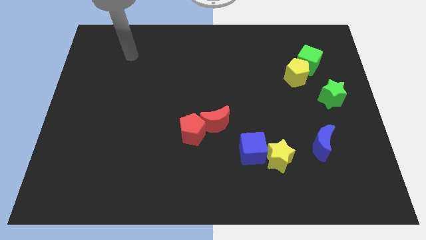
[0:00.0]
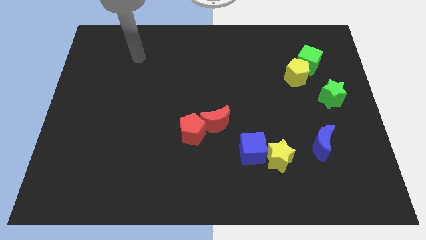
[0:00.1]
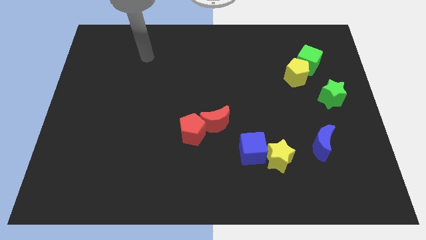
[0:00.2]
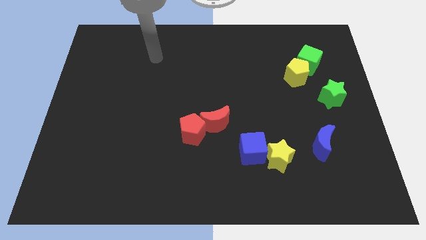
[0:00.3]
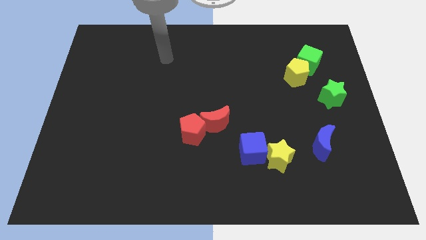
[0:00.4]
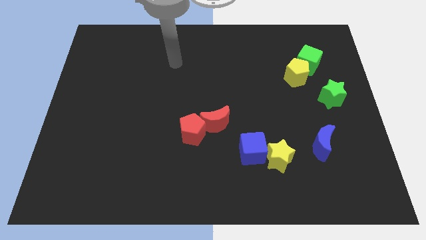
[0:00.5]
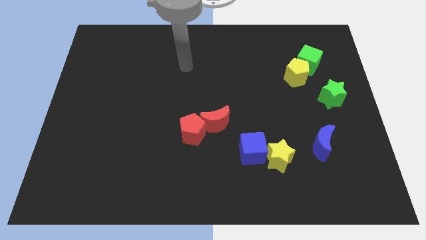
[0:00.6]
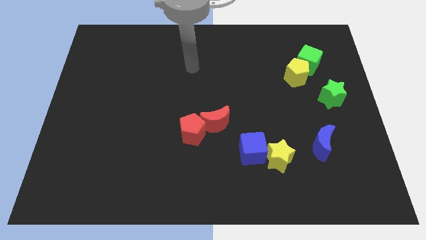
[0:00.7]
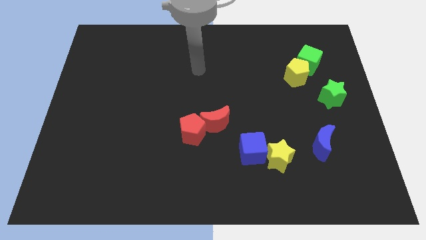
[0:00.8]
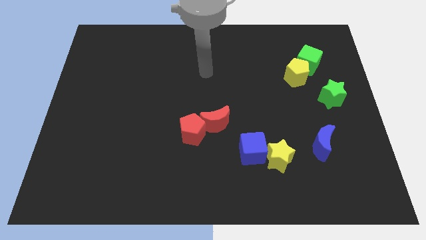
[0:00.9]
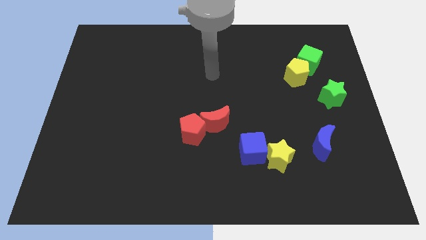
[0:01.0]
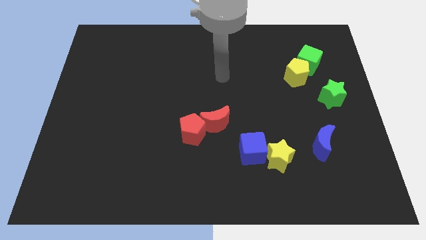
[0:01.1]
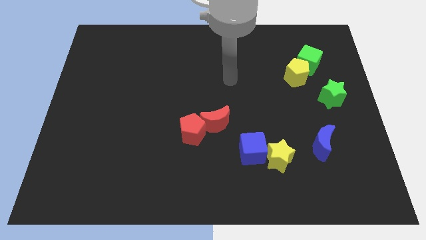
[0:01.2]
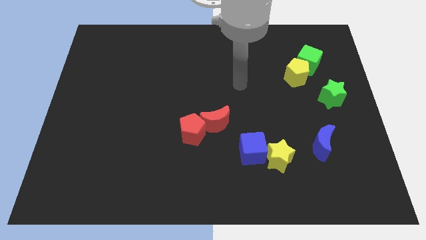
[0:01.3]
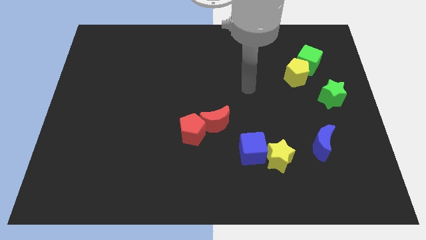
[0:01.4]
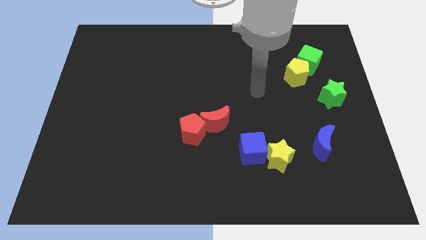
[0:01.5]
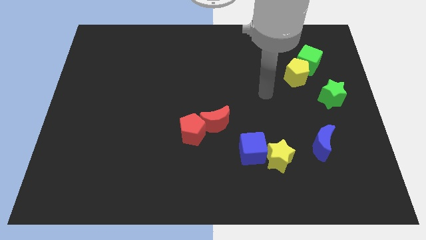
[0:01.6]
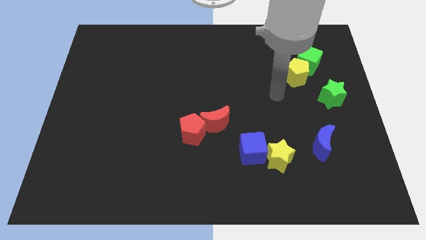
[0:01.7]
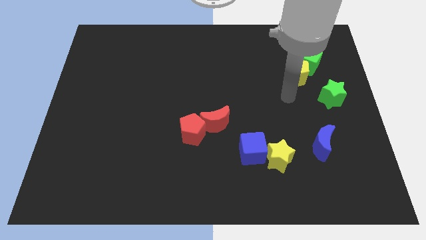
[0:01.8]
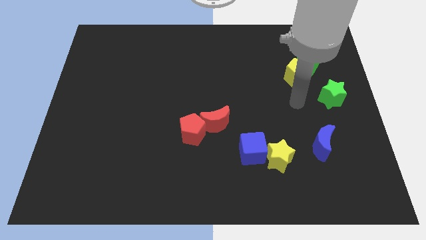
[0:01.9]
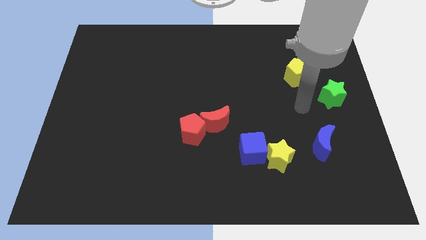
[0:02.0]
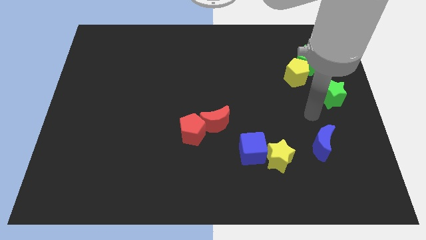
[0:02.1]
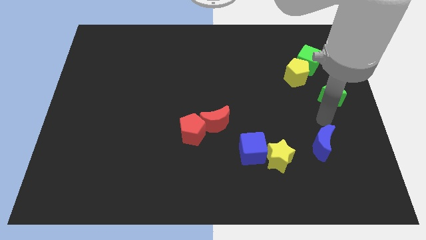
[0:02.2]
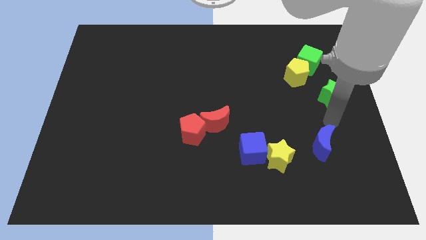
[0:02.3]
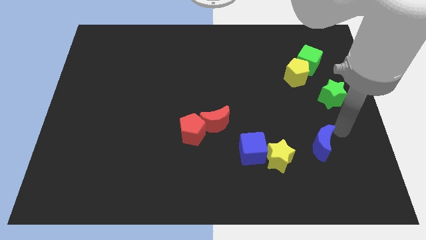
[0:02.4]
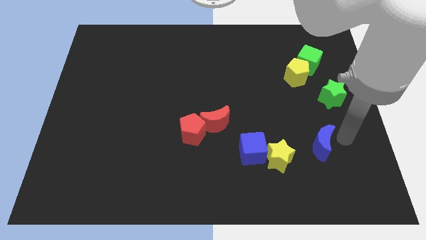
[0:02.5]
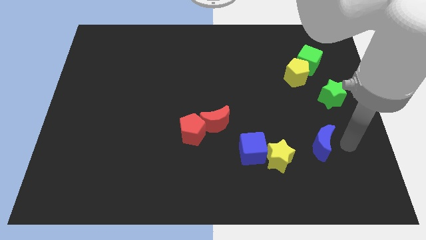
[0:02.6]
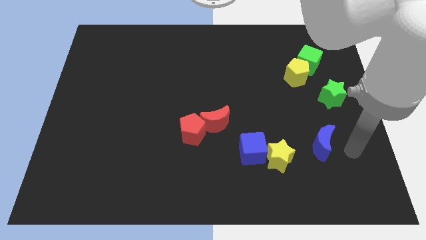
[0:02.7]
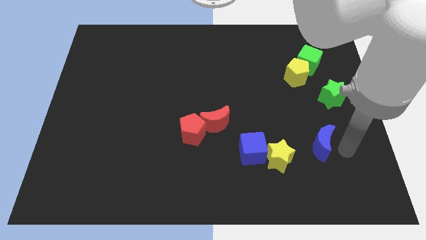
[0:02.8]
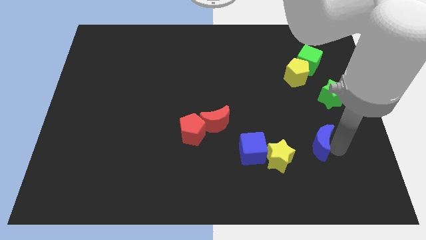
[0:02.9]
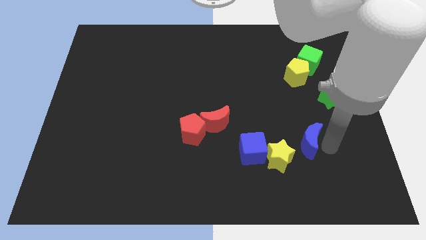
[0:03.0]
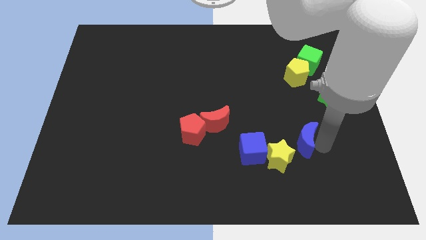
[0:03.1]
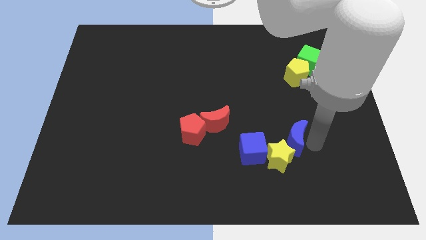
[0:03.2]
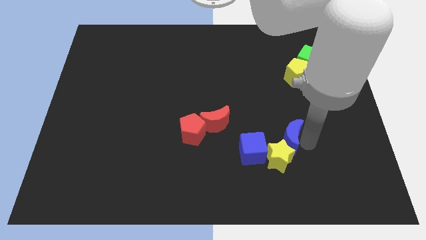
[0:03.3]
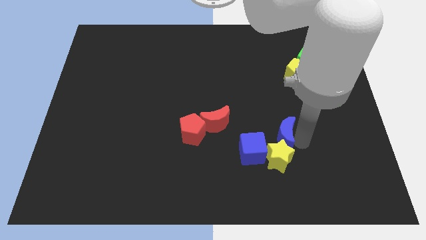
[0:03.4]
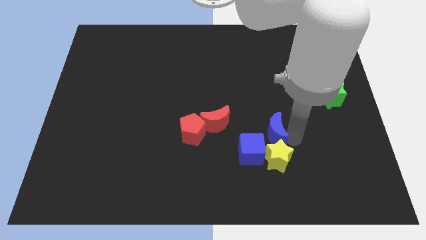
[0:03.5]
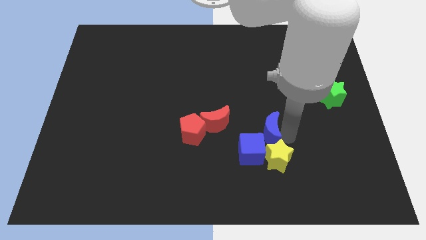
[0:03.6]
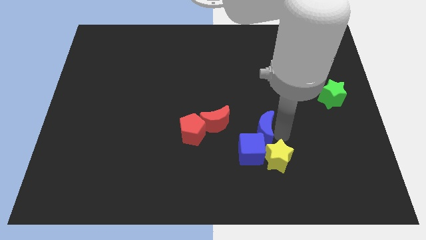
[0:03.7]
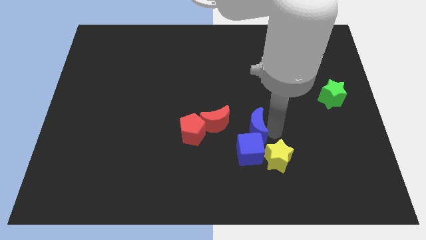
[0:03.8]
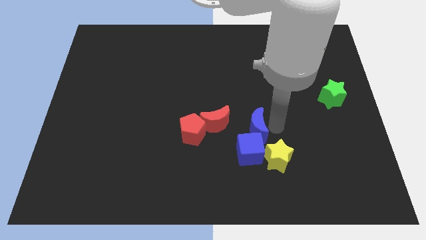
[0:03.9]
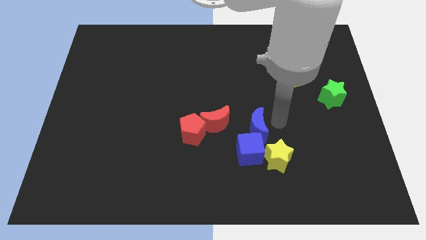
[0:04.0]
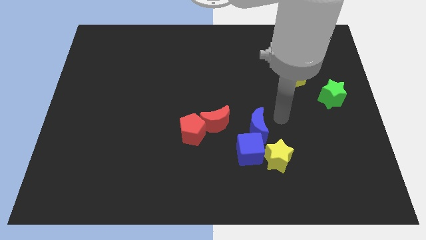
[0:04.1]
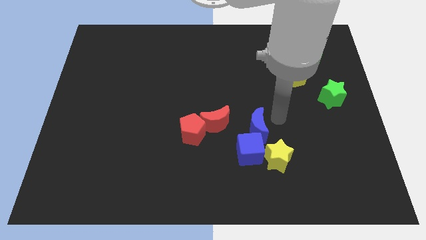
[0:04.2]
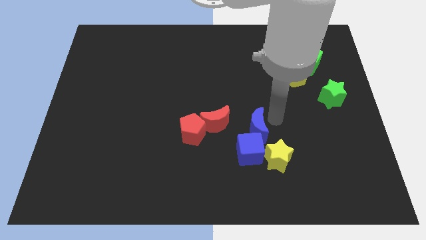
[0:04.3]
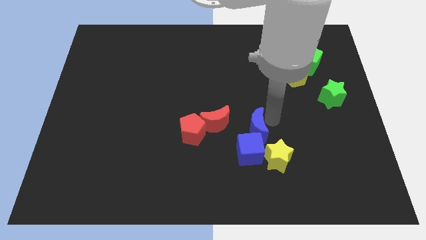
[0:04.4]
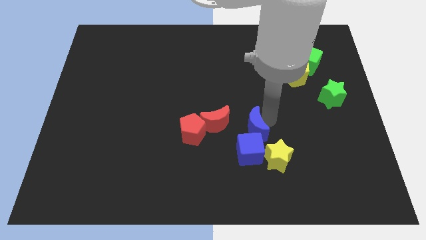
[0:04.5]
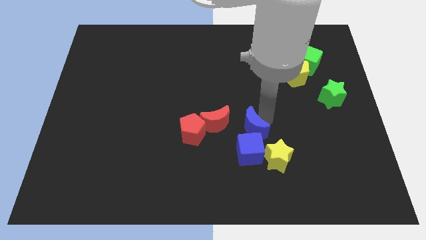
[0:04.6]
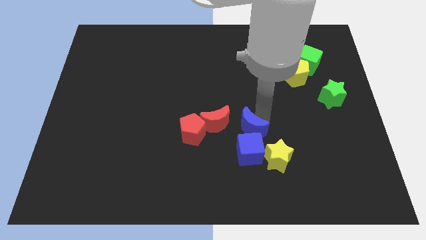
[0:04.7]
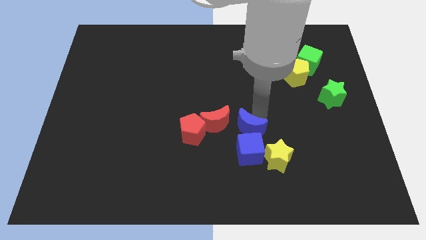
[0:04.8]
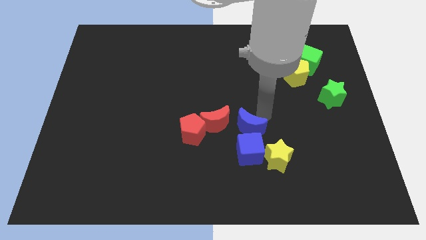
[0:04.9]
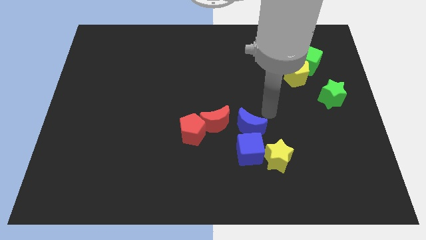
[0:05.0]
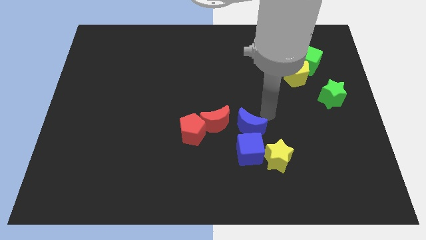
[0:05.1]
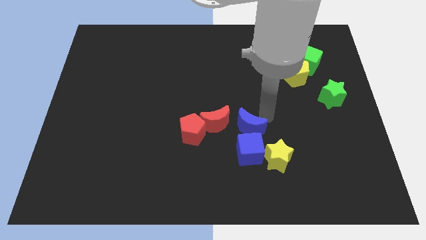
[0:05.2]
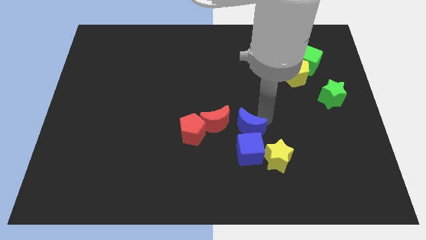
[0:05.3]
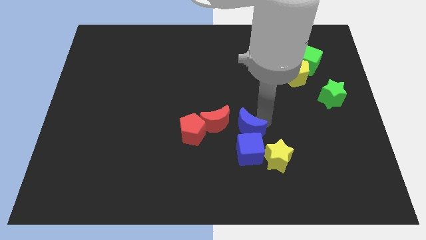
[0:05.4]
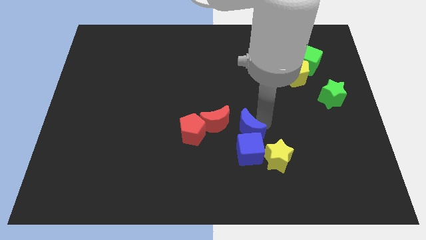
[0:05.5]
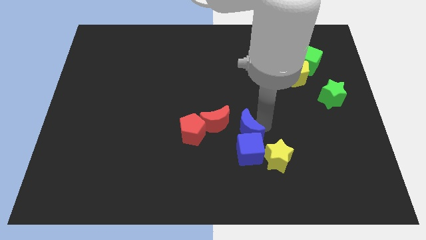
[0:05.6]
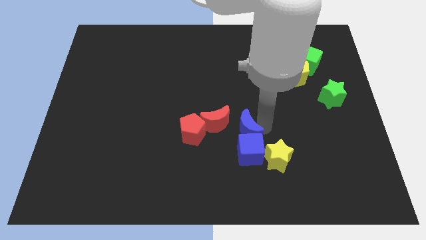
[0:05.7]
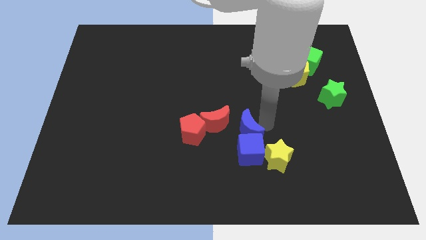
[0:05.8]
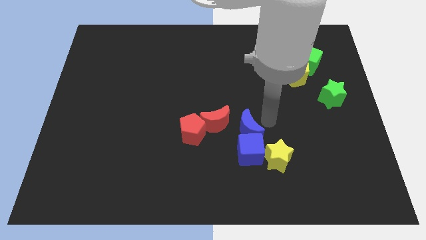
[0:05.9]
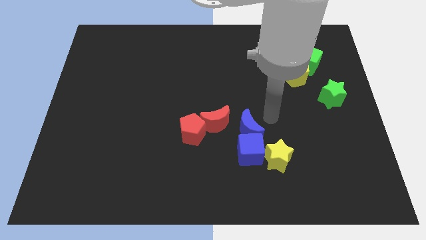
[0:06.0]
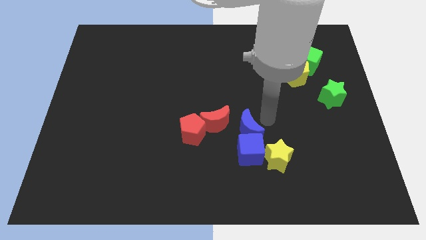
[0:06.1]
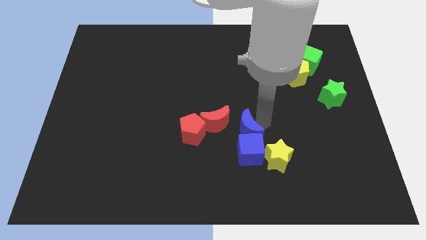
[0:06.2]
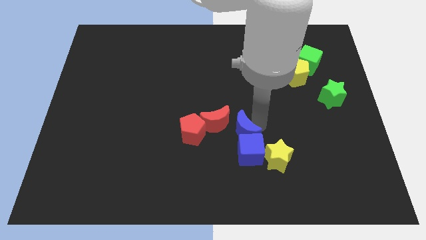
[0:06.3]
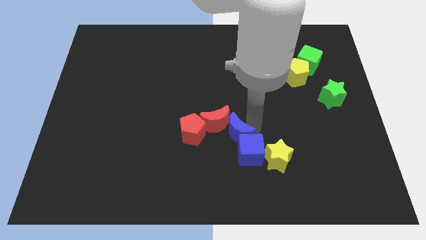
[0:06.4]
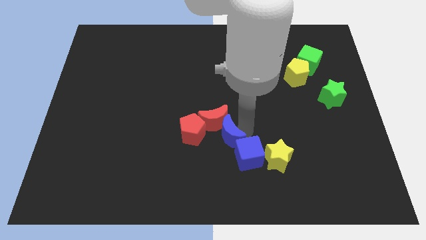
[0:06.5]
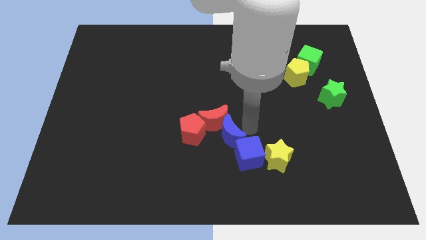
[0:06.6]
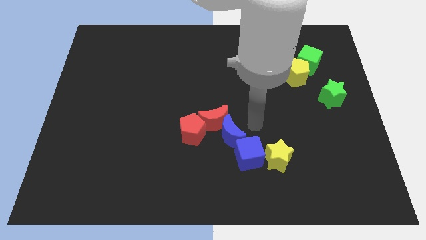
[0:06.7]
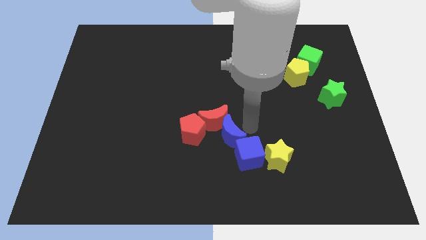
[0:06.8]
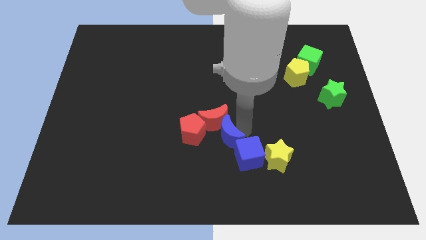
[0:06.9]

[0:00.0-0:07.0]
move the blue moon left

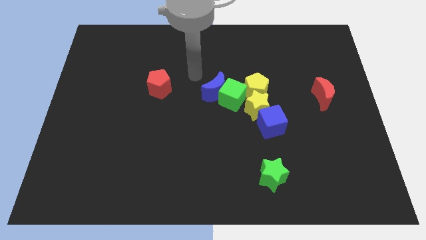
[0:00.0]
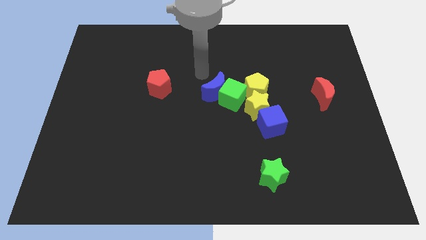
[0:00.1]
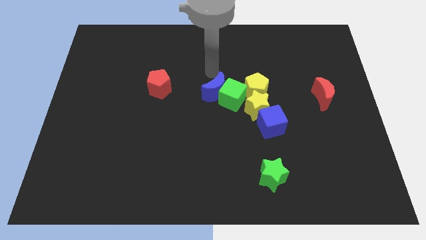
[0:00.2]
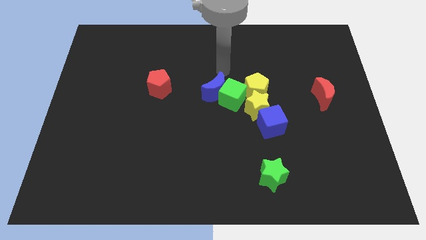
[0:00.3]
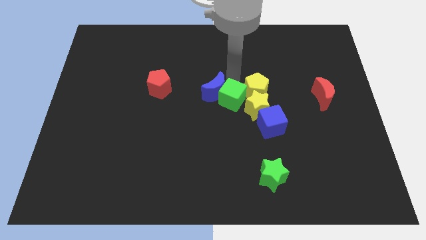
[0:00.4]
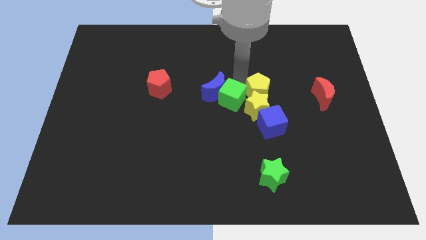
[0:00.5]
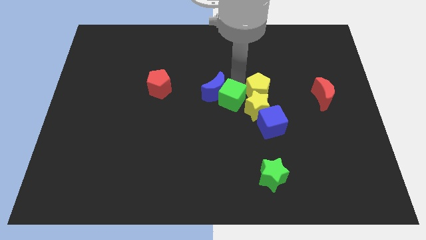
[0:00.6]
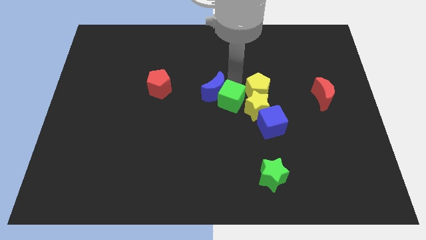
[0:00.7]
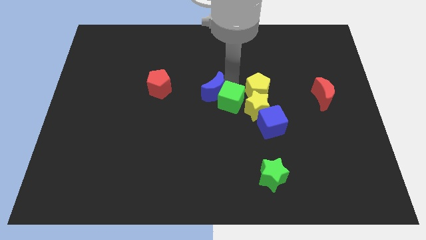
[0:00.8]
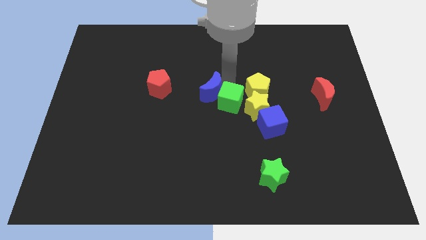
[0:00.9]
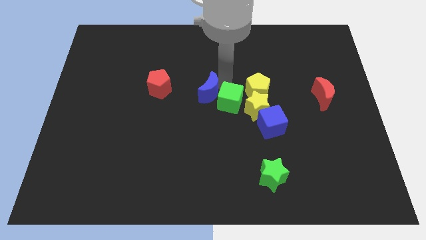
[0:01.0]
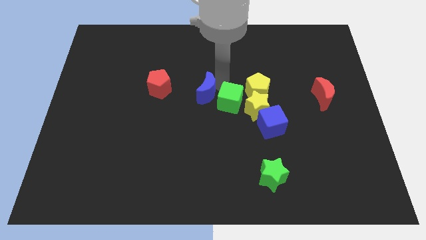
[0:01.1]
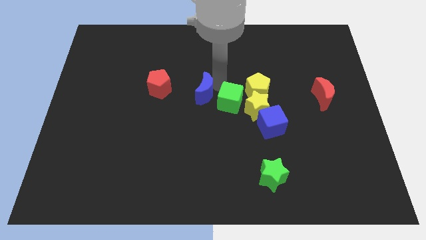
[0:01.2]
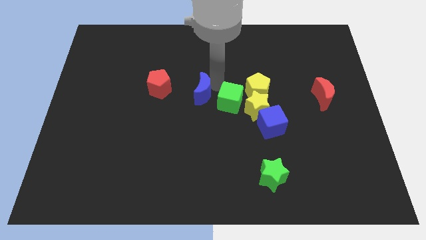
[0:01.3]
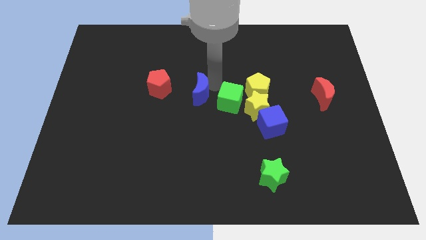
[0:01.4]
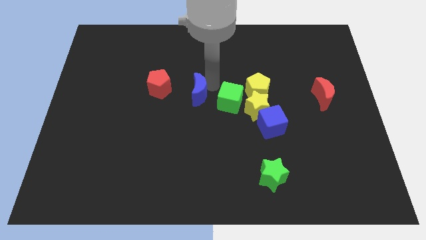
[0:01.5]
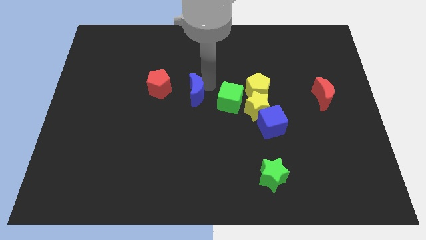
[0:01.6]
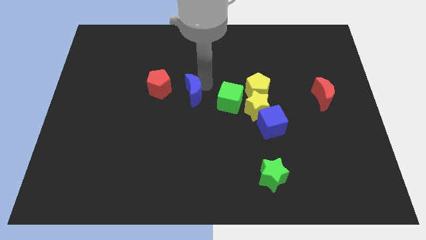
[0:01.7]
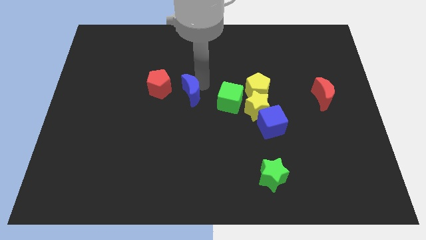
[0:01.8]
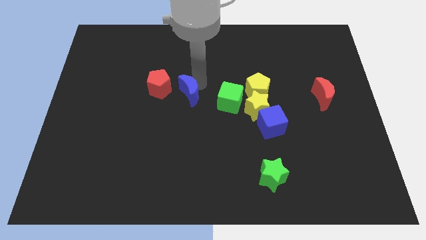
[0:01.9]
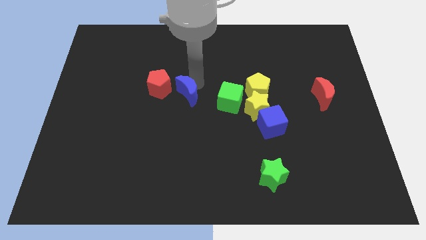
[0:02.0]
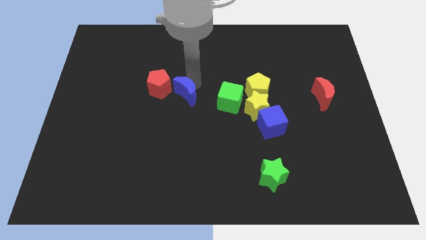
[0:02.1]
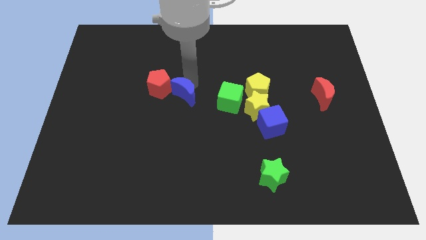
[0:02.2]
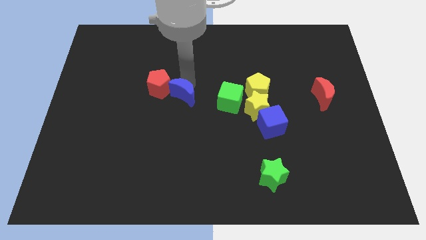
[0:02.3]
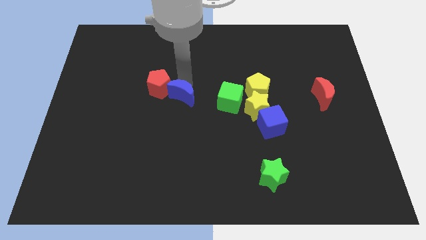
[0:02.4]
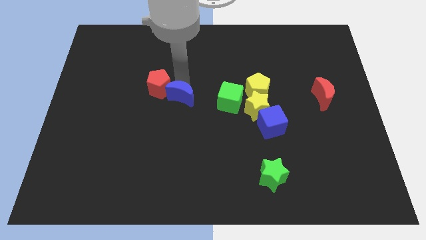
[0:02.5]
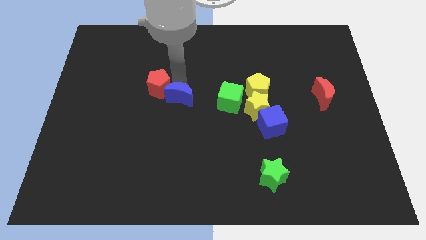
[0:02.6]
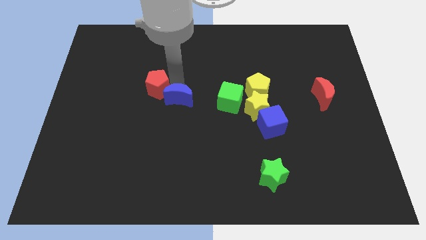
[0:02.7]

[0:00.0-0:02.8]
slightly push the blue moon diagonally down and to the left
